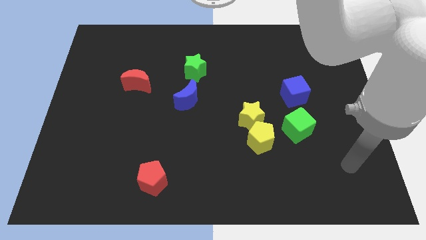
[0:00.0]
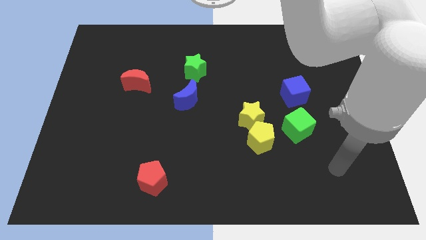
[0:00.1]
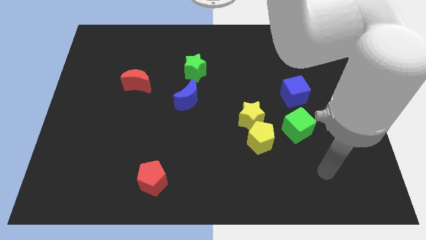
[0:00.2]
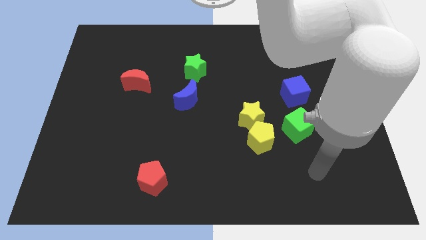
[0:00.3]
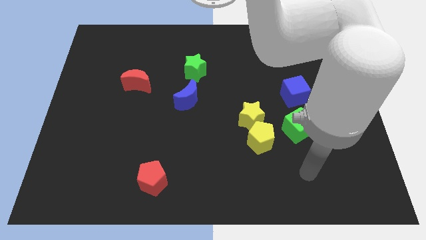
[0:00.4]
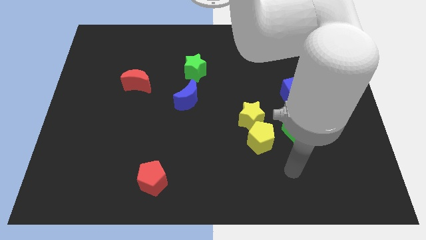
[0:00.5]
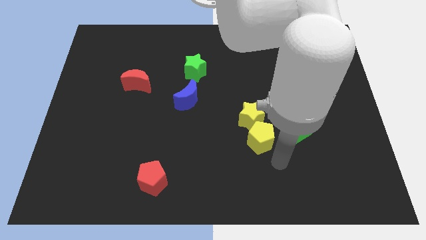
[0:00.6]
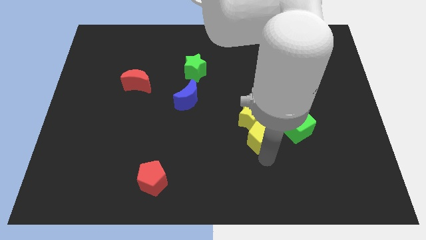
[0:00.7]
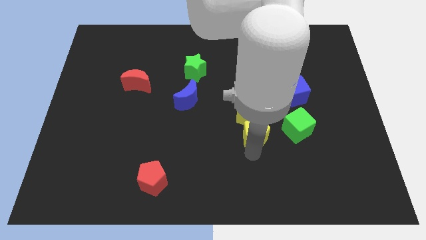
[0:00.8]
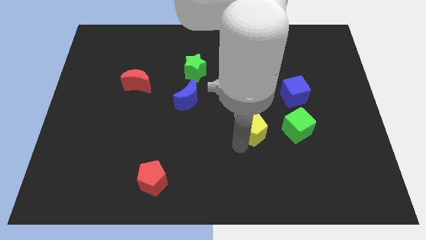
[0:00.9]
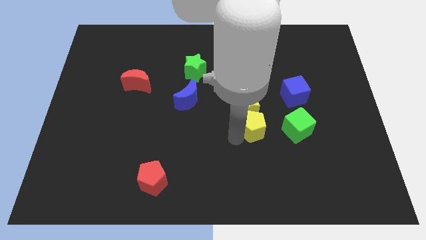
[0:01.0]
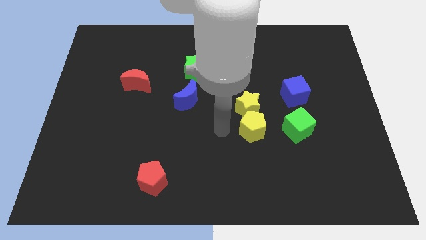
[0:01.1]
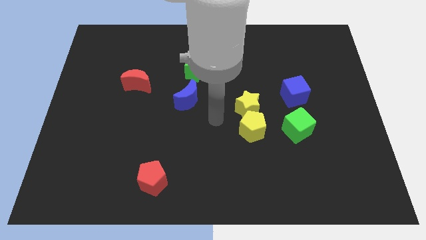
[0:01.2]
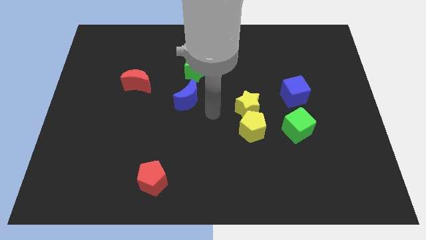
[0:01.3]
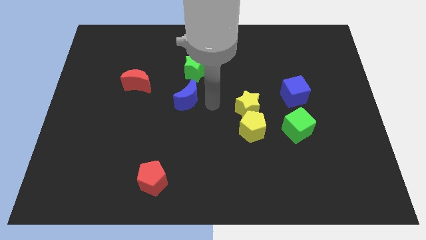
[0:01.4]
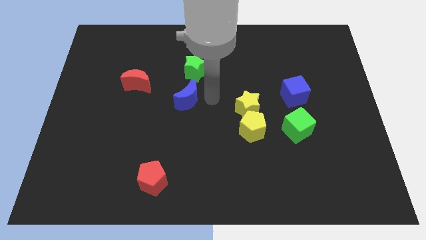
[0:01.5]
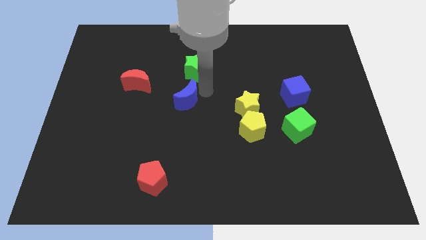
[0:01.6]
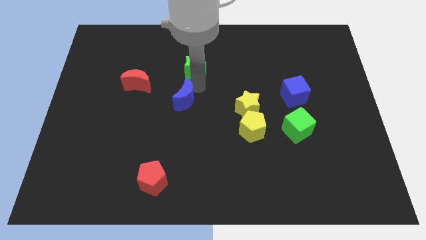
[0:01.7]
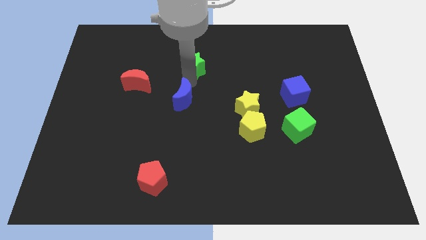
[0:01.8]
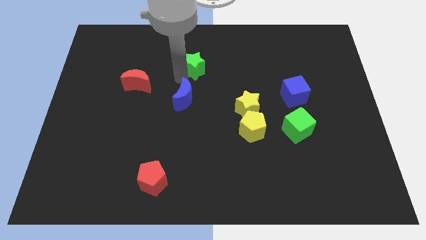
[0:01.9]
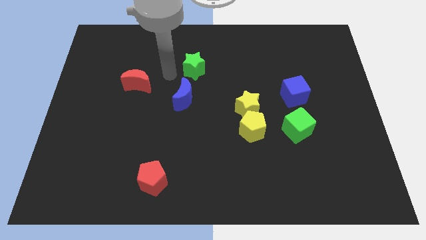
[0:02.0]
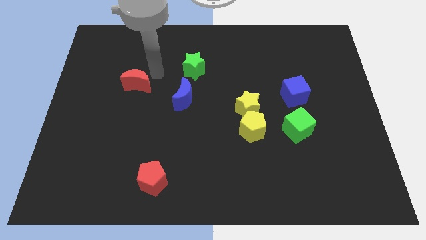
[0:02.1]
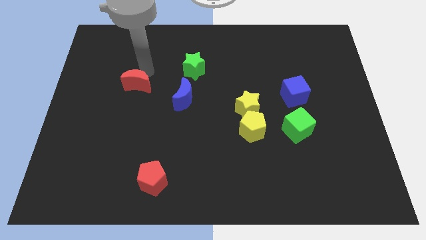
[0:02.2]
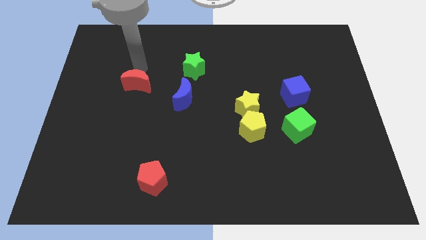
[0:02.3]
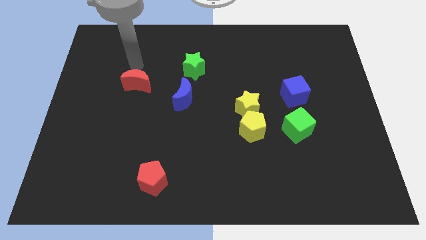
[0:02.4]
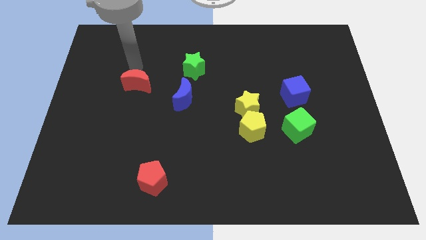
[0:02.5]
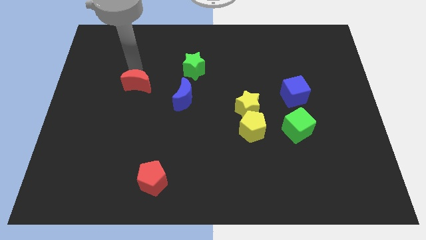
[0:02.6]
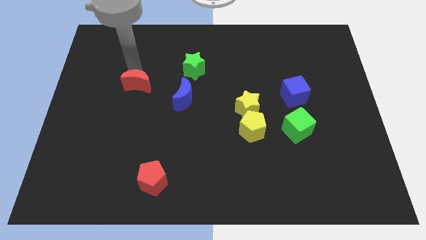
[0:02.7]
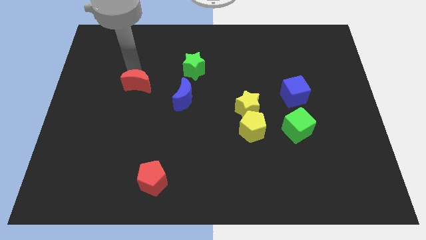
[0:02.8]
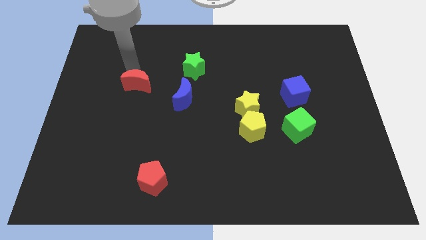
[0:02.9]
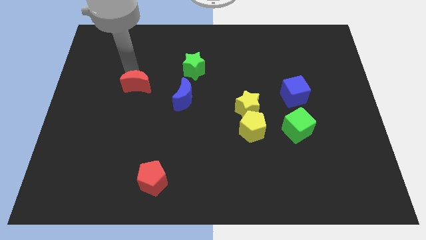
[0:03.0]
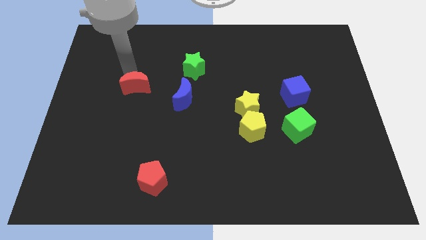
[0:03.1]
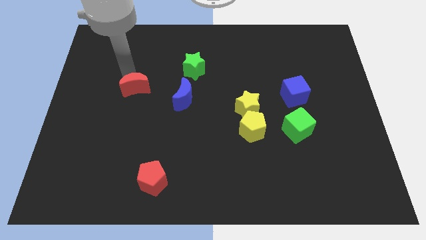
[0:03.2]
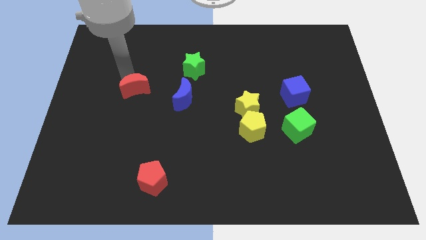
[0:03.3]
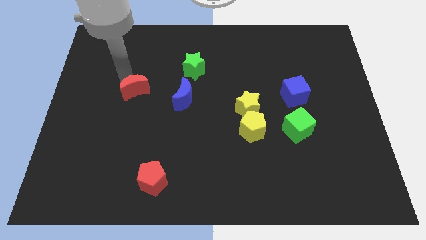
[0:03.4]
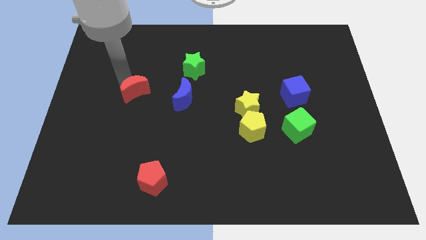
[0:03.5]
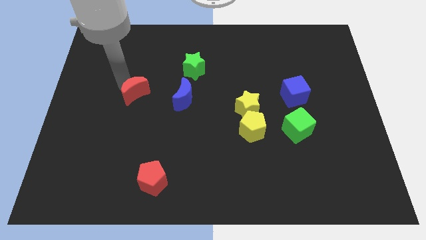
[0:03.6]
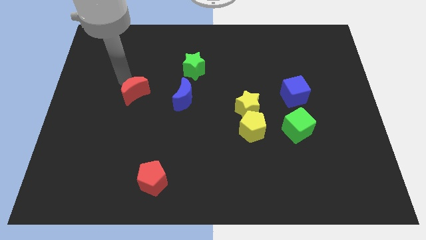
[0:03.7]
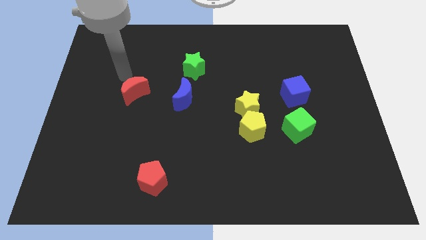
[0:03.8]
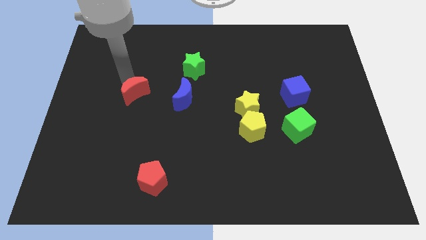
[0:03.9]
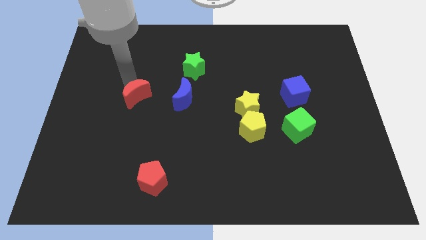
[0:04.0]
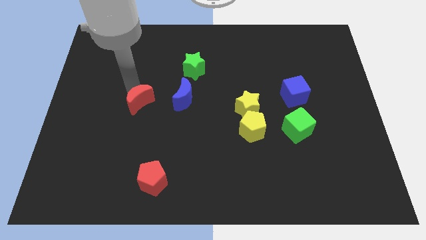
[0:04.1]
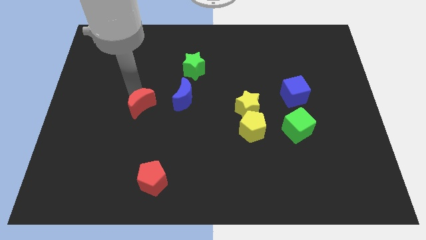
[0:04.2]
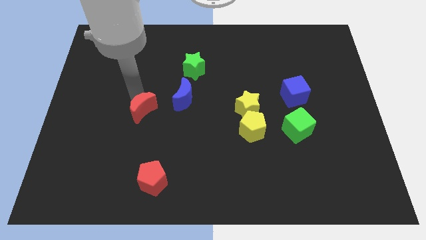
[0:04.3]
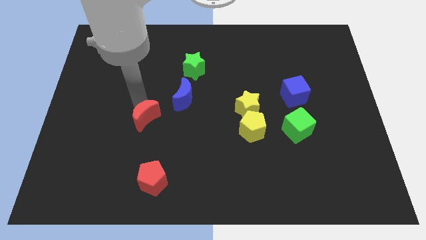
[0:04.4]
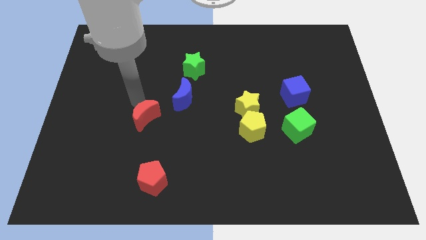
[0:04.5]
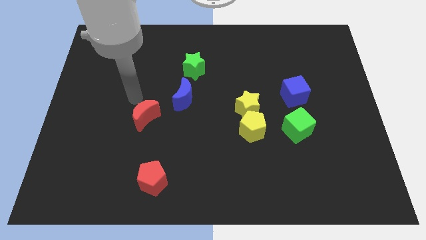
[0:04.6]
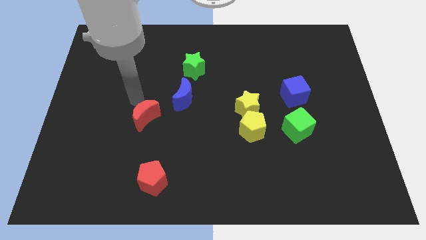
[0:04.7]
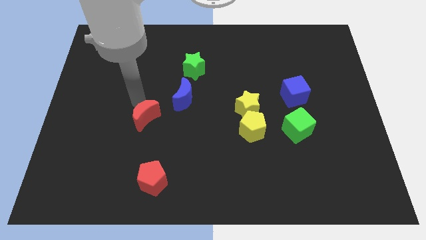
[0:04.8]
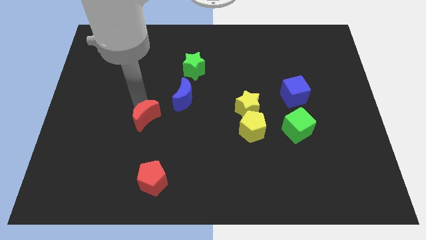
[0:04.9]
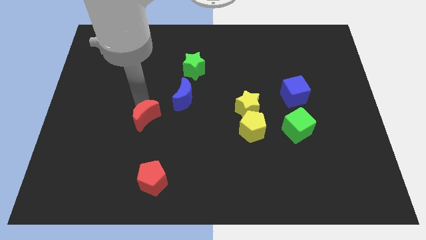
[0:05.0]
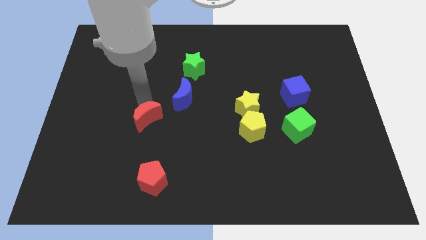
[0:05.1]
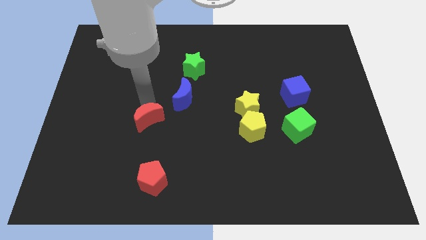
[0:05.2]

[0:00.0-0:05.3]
move the red moon above the red pentagon

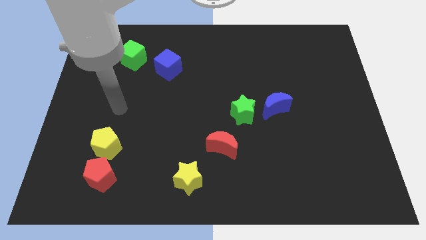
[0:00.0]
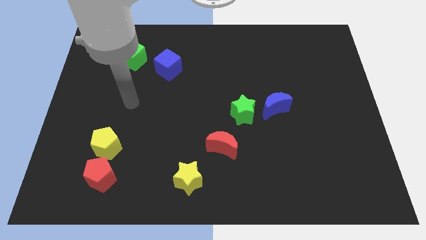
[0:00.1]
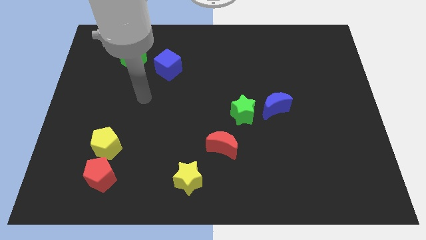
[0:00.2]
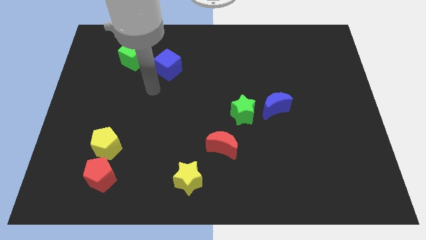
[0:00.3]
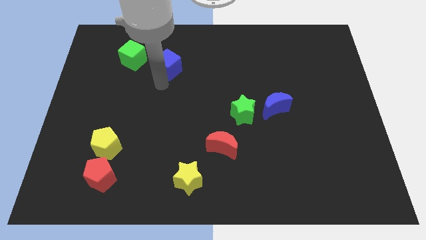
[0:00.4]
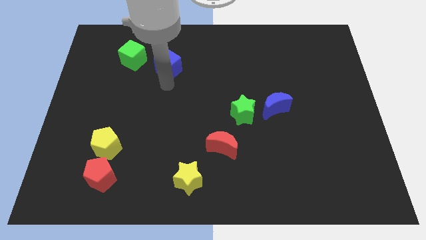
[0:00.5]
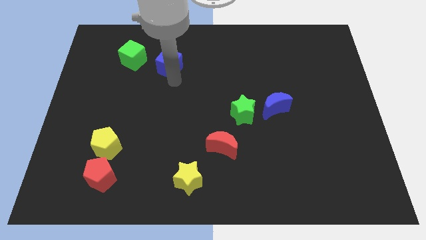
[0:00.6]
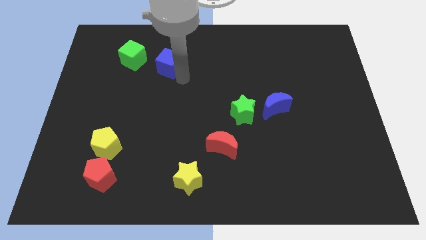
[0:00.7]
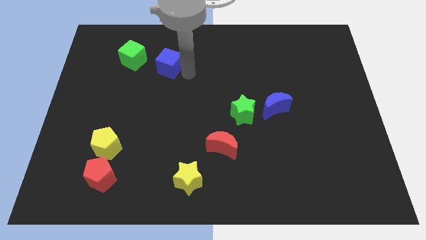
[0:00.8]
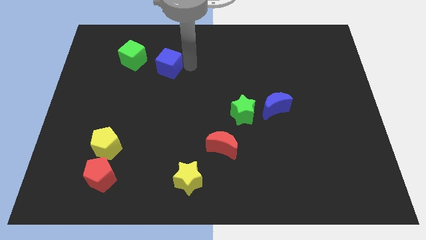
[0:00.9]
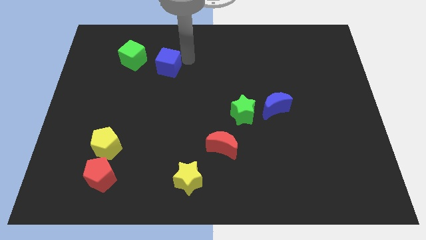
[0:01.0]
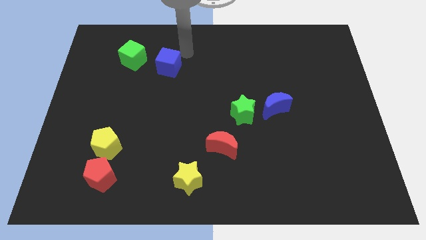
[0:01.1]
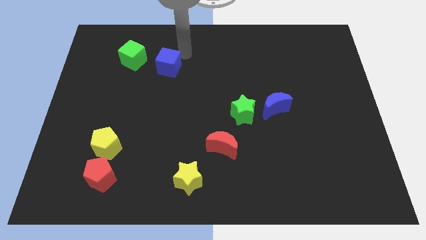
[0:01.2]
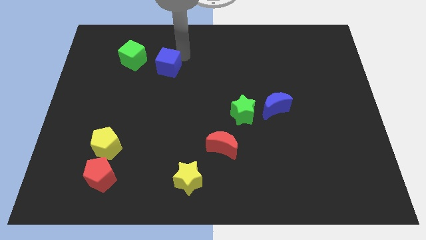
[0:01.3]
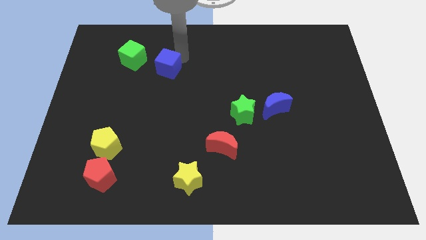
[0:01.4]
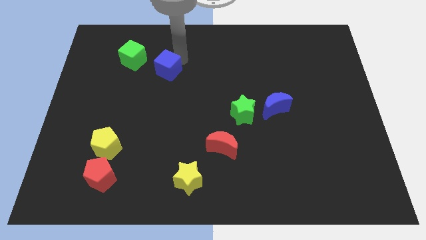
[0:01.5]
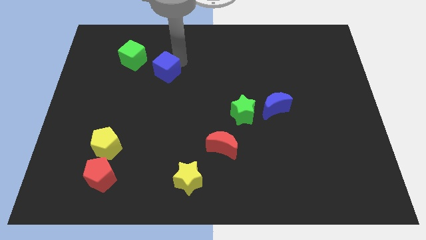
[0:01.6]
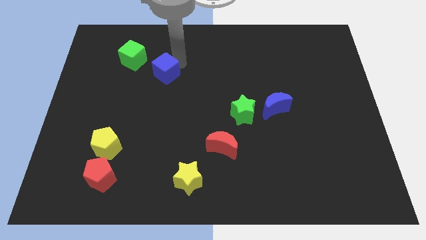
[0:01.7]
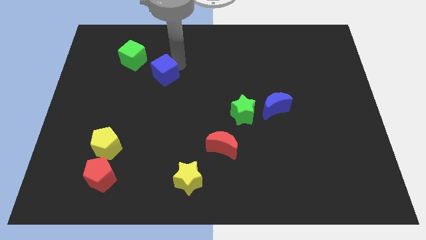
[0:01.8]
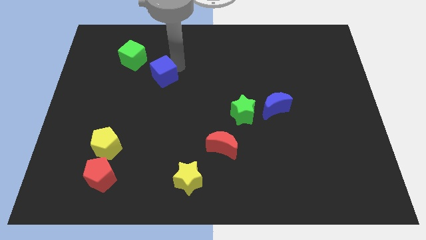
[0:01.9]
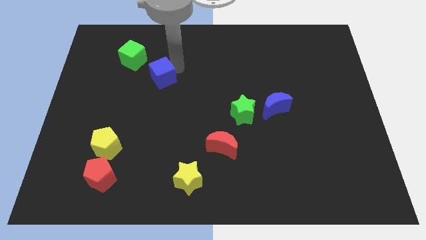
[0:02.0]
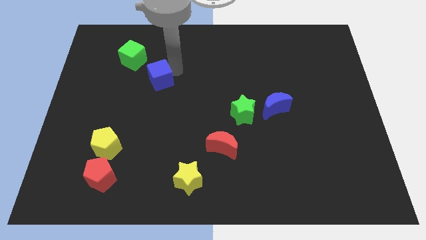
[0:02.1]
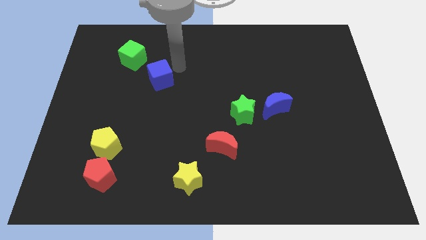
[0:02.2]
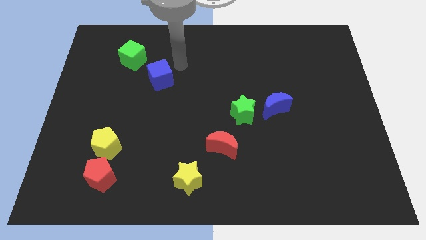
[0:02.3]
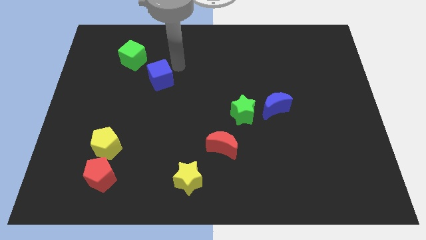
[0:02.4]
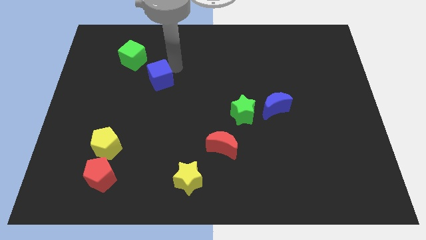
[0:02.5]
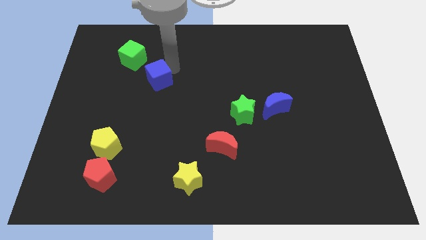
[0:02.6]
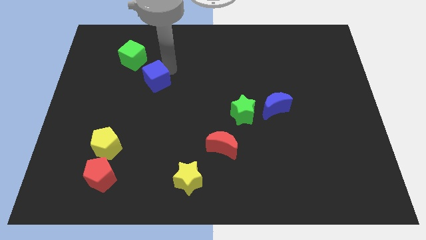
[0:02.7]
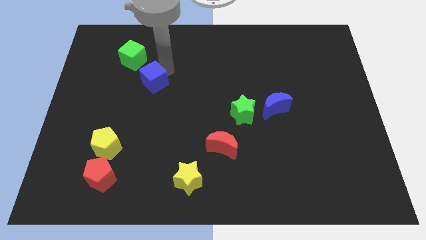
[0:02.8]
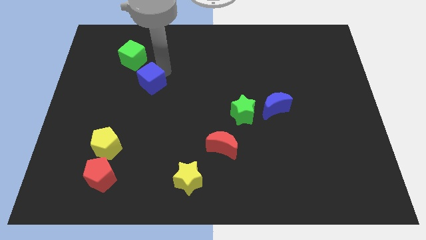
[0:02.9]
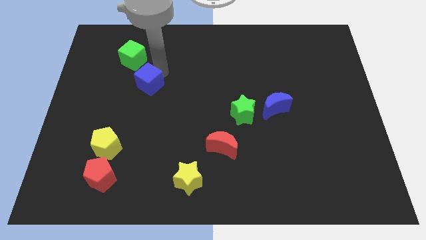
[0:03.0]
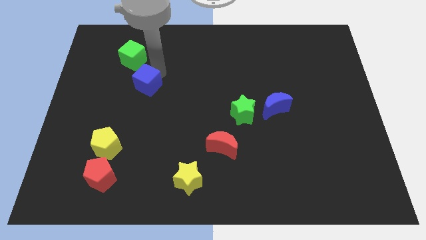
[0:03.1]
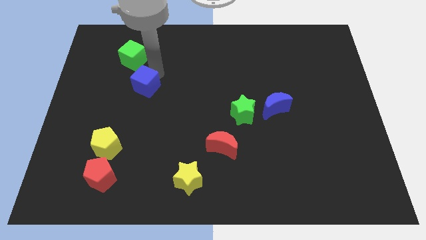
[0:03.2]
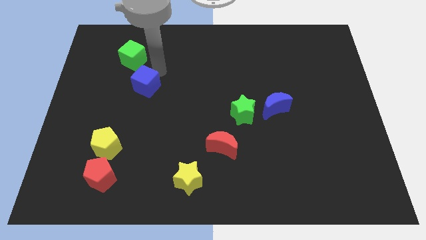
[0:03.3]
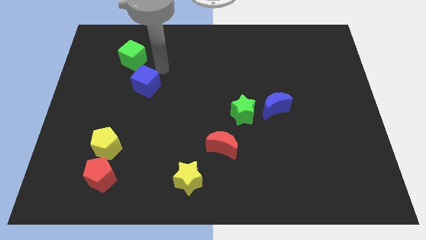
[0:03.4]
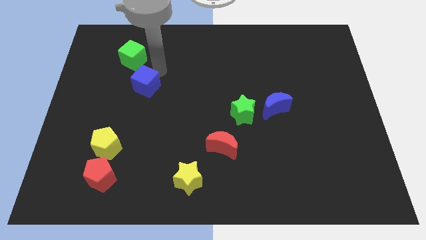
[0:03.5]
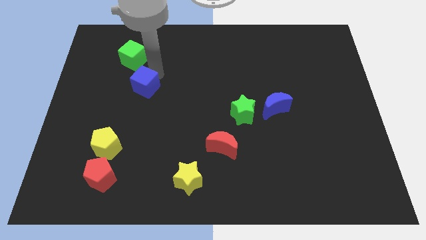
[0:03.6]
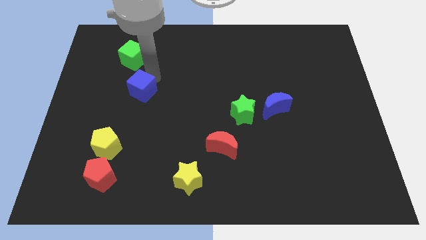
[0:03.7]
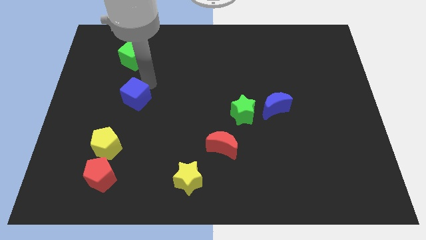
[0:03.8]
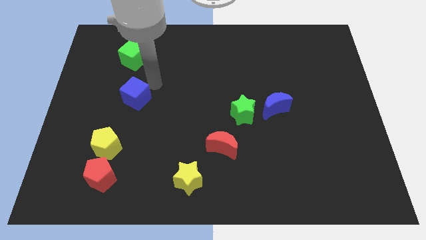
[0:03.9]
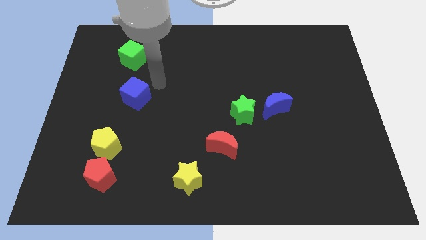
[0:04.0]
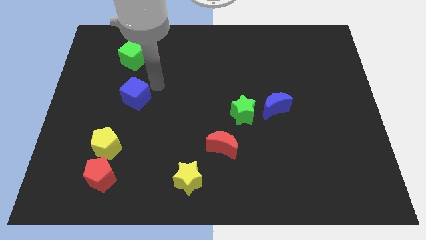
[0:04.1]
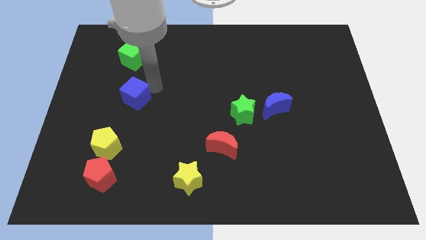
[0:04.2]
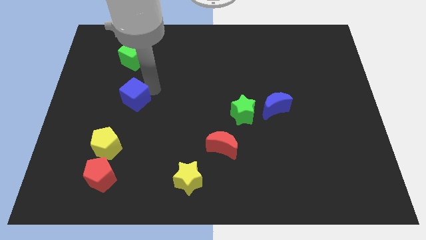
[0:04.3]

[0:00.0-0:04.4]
push the blue cube to the top side of the yellow pentagon
